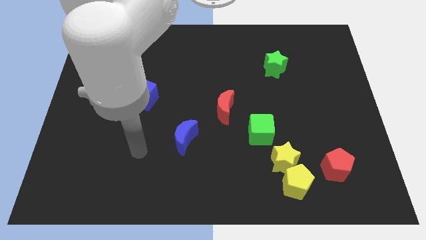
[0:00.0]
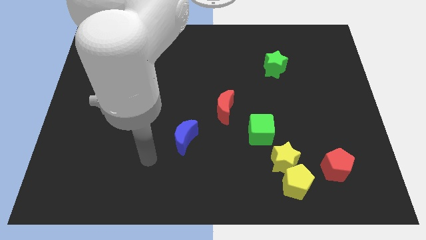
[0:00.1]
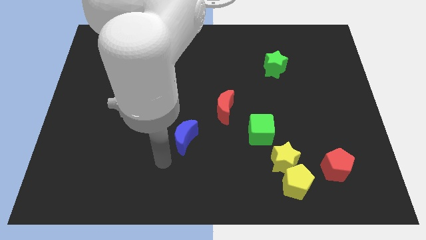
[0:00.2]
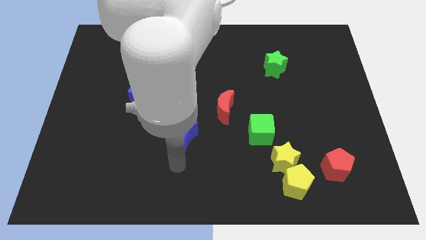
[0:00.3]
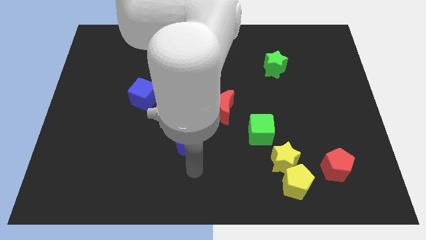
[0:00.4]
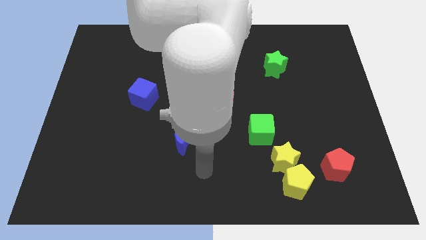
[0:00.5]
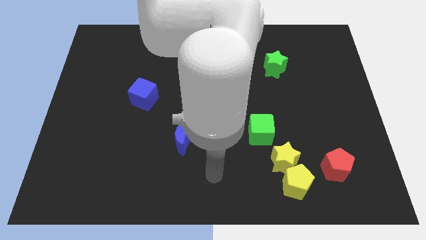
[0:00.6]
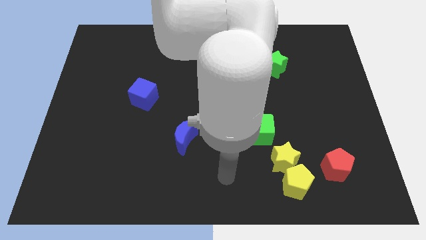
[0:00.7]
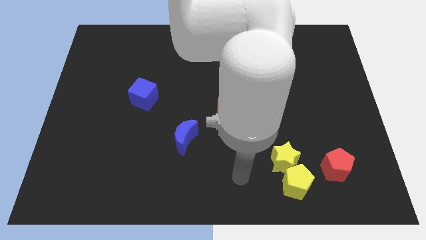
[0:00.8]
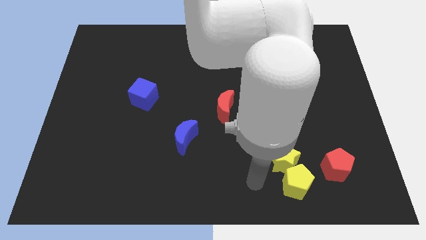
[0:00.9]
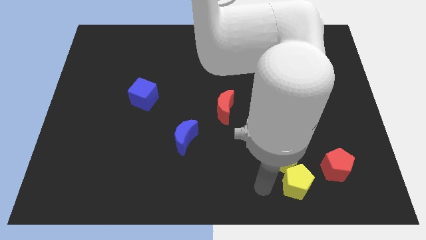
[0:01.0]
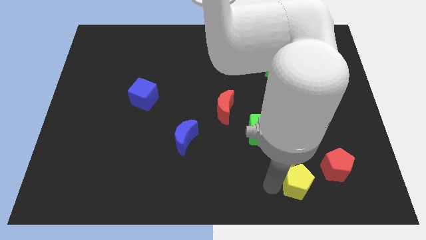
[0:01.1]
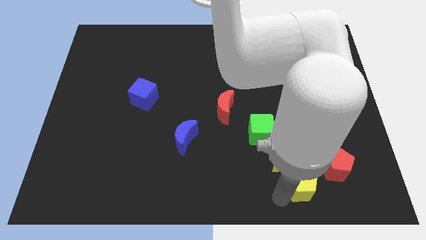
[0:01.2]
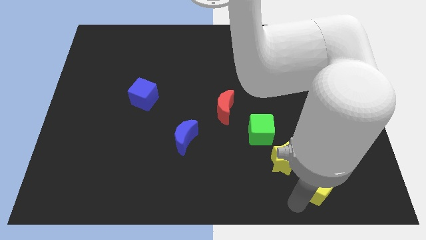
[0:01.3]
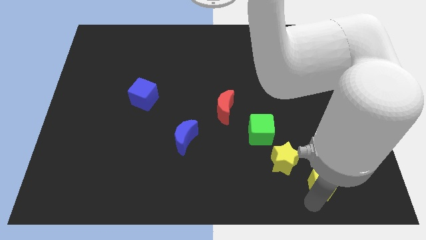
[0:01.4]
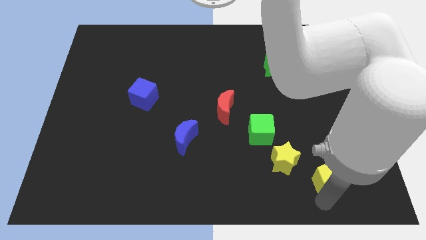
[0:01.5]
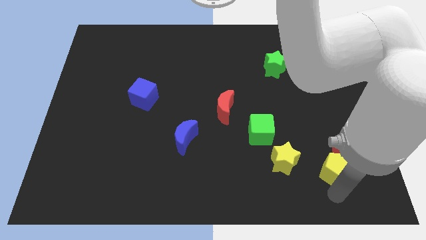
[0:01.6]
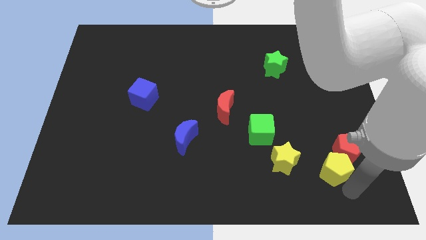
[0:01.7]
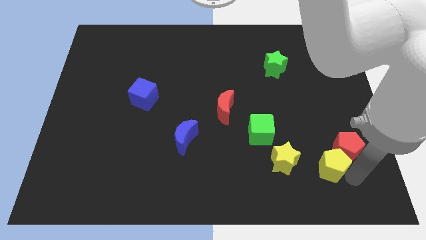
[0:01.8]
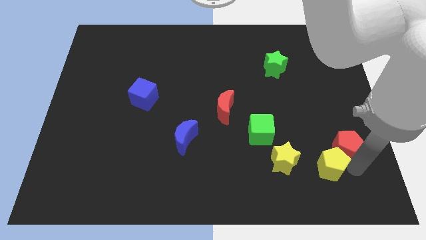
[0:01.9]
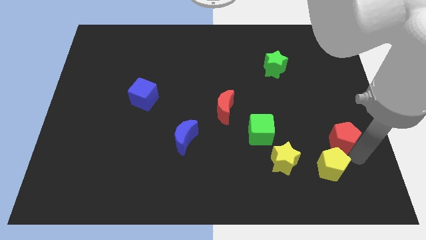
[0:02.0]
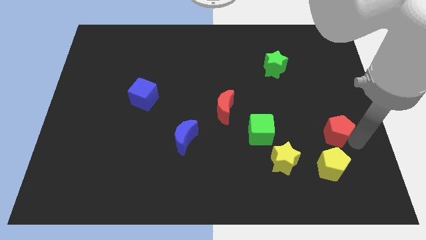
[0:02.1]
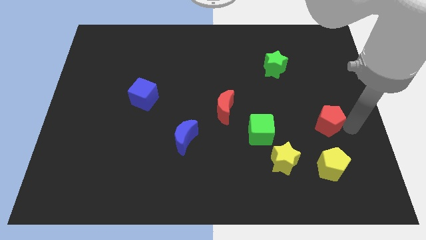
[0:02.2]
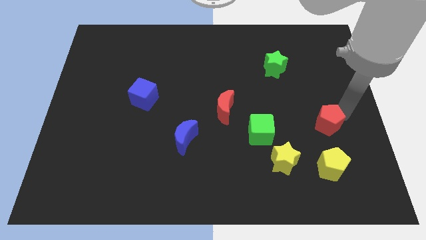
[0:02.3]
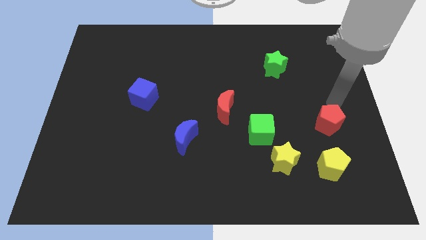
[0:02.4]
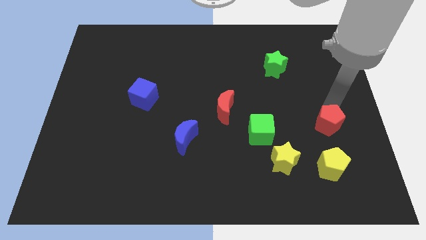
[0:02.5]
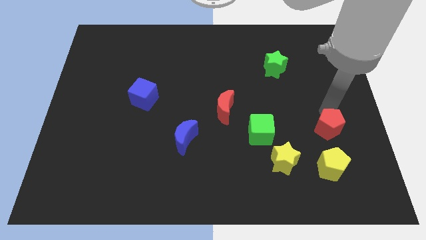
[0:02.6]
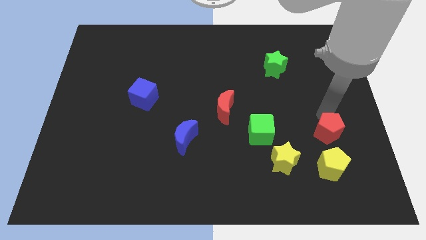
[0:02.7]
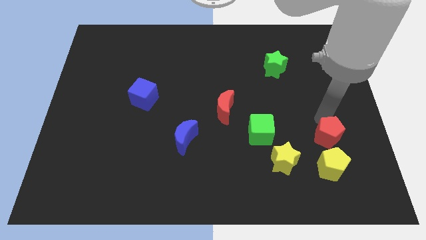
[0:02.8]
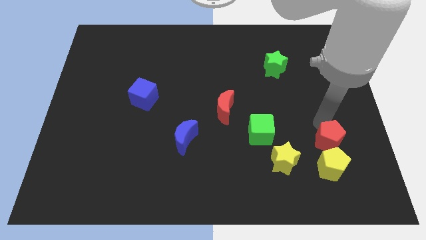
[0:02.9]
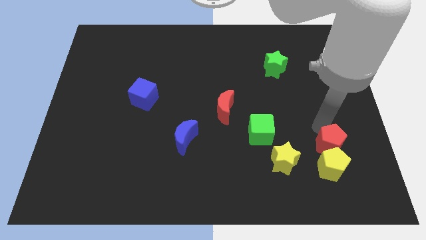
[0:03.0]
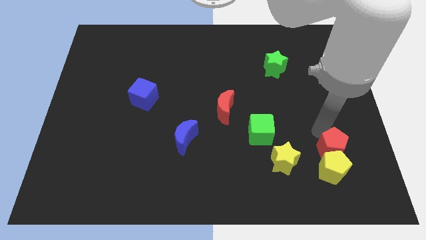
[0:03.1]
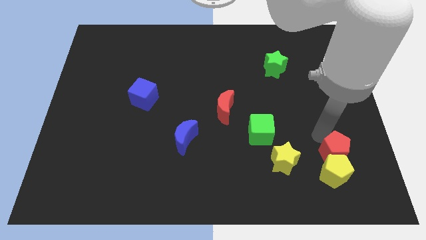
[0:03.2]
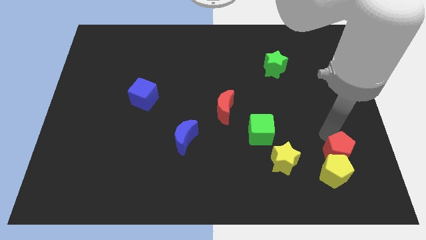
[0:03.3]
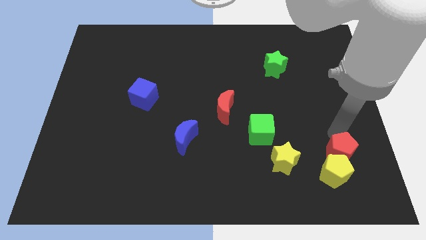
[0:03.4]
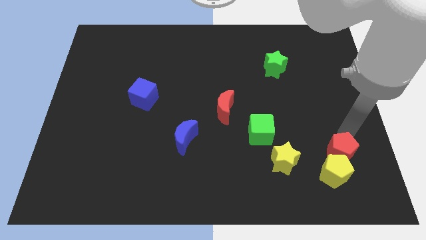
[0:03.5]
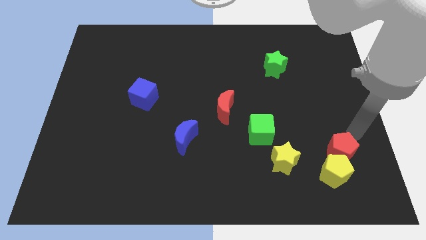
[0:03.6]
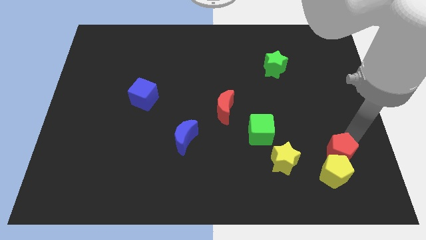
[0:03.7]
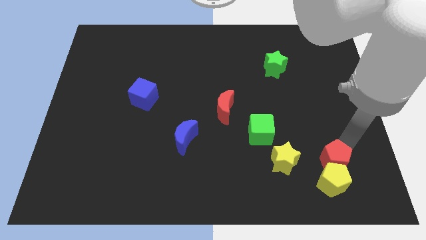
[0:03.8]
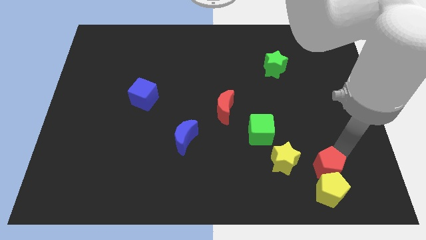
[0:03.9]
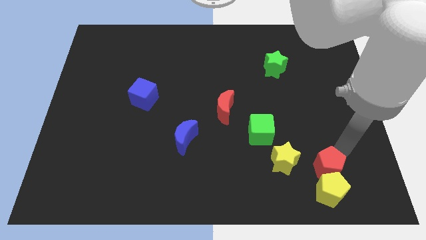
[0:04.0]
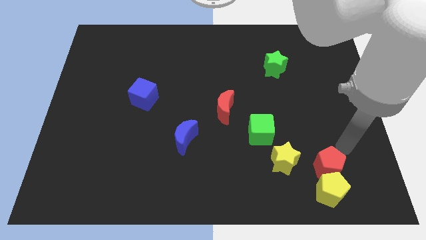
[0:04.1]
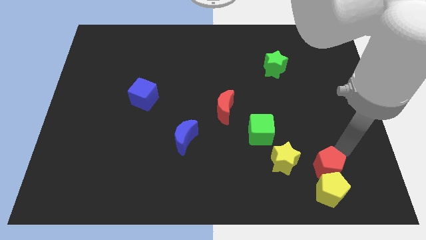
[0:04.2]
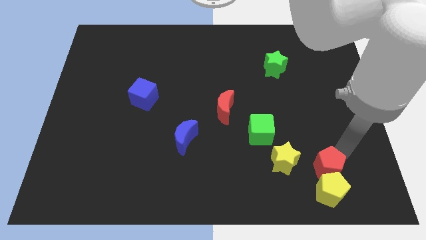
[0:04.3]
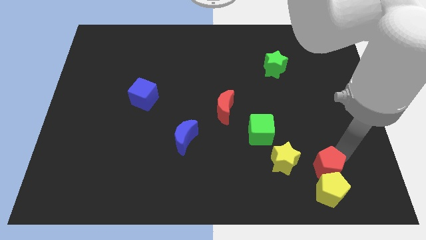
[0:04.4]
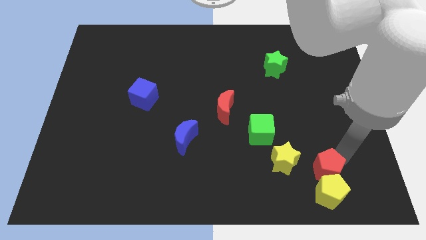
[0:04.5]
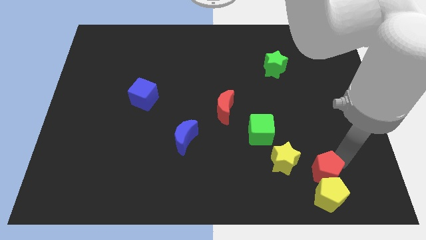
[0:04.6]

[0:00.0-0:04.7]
put the red pentagon to the bottom right of the yellow star

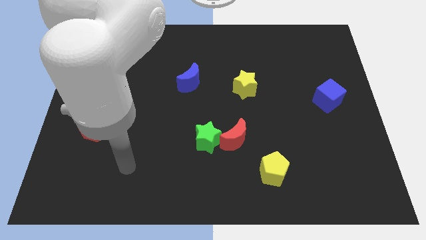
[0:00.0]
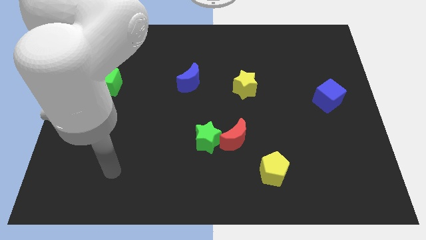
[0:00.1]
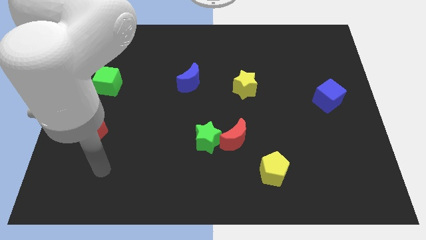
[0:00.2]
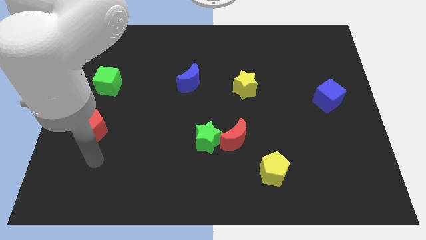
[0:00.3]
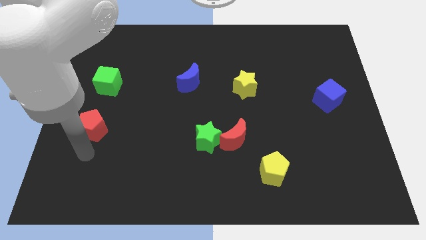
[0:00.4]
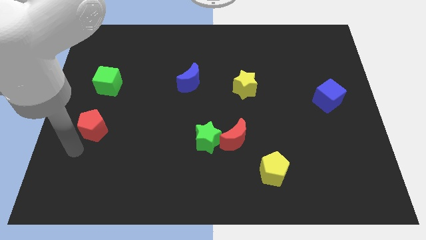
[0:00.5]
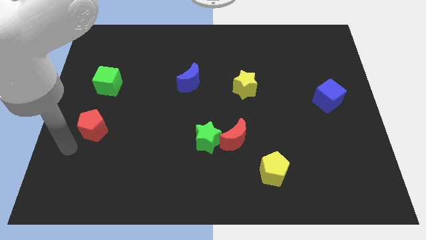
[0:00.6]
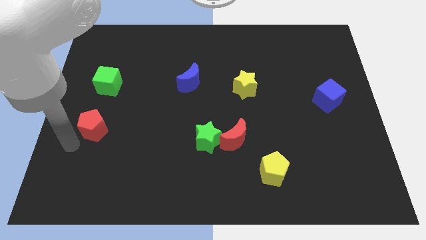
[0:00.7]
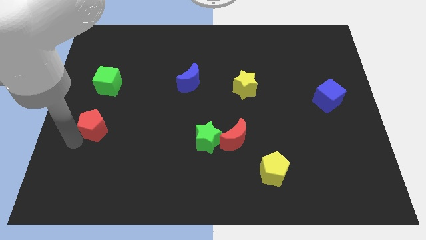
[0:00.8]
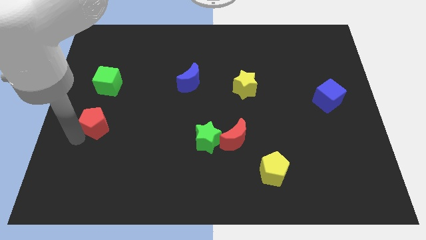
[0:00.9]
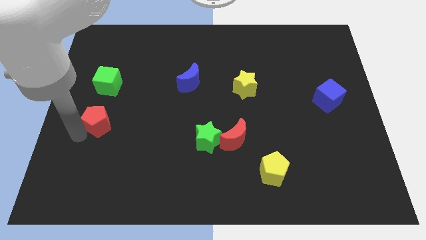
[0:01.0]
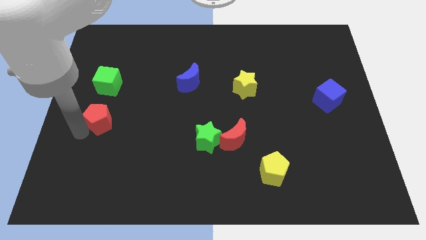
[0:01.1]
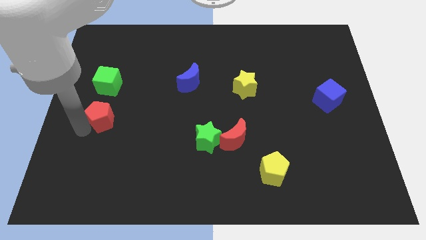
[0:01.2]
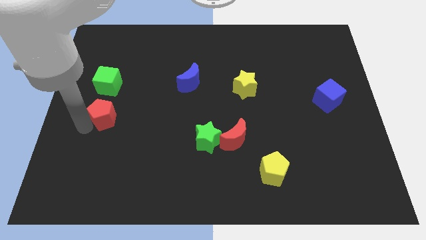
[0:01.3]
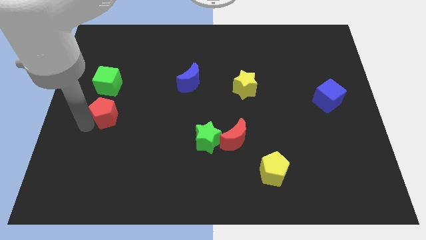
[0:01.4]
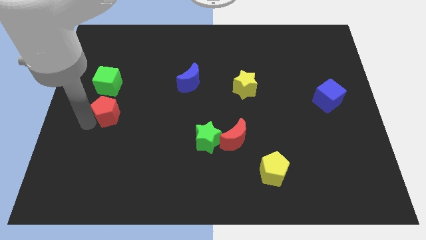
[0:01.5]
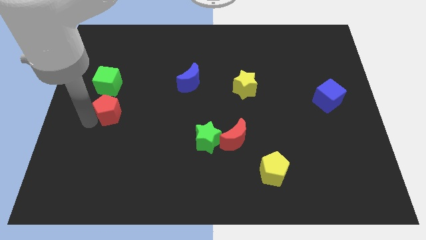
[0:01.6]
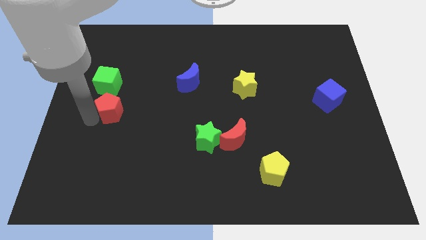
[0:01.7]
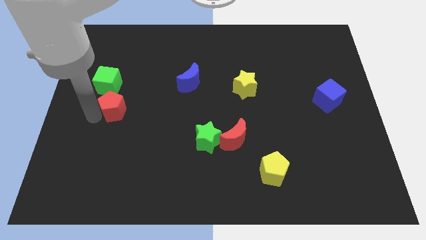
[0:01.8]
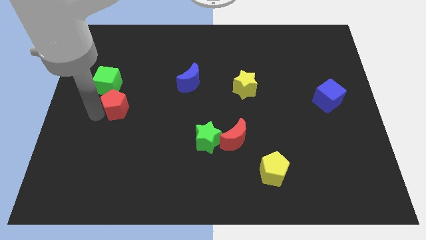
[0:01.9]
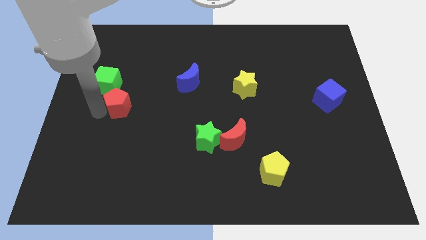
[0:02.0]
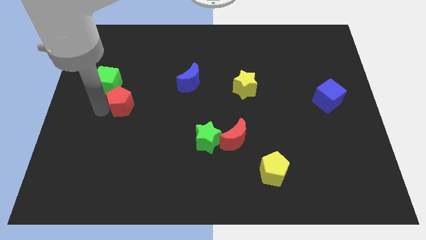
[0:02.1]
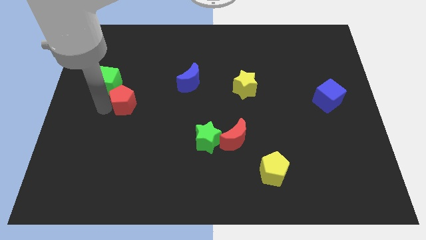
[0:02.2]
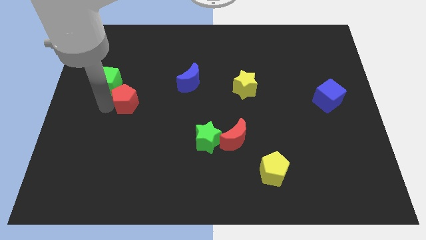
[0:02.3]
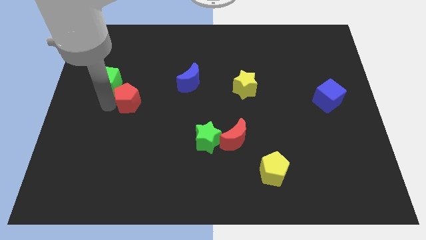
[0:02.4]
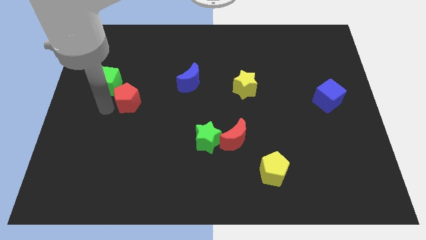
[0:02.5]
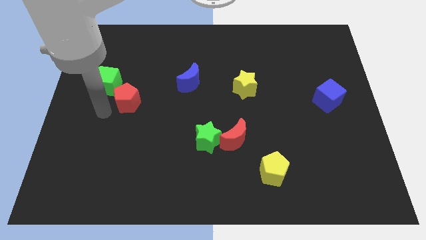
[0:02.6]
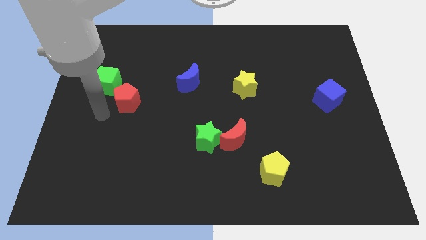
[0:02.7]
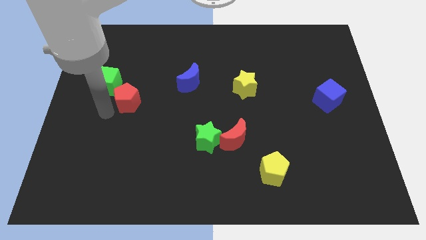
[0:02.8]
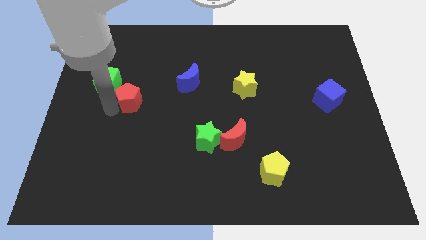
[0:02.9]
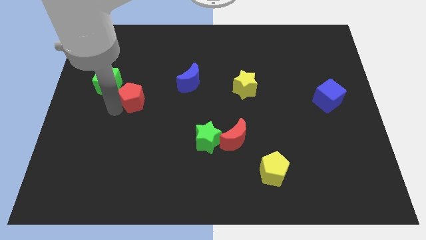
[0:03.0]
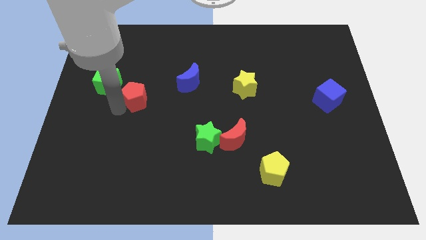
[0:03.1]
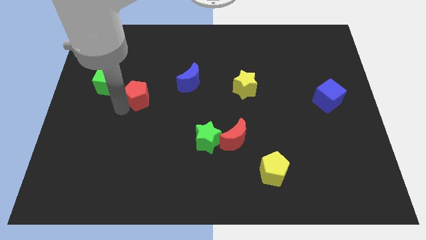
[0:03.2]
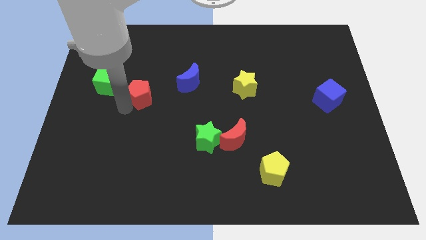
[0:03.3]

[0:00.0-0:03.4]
push the red pentagon left of the blue moon
